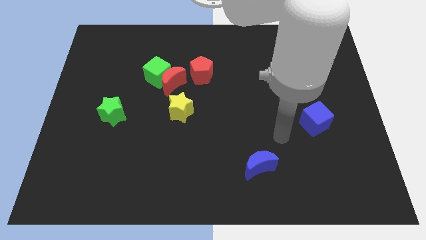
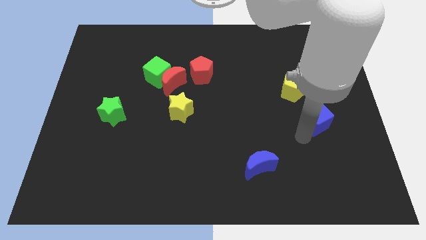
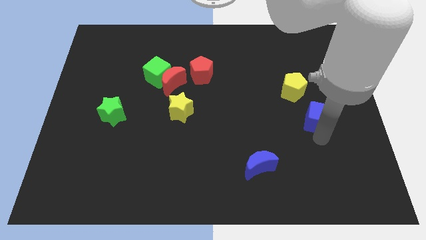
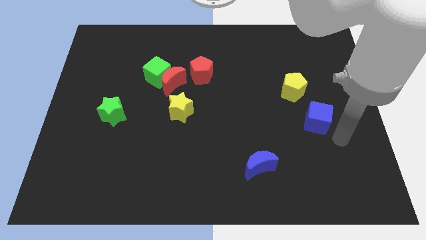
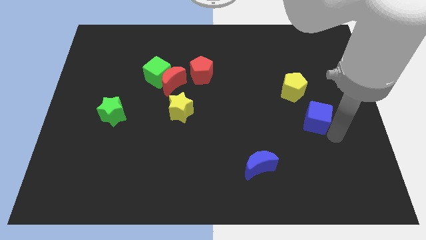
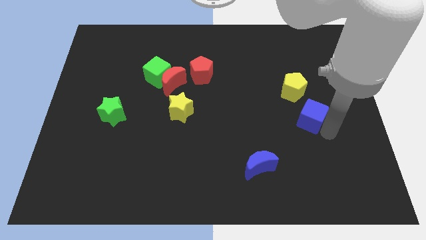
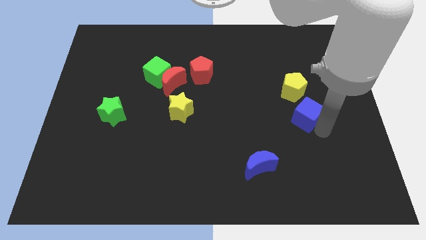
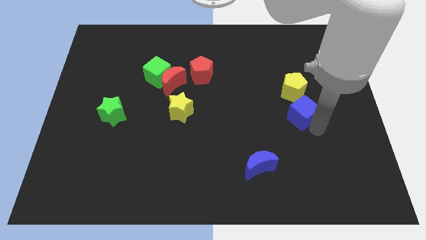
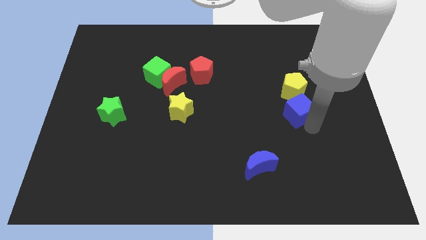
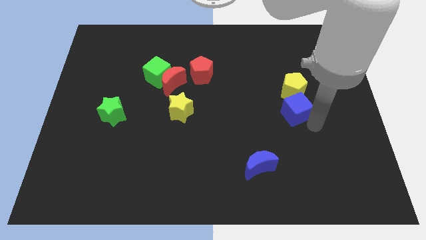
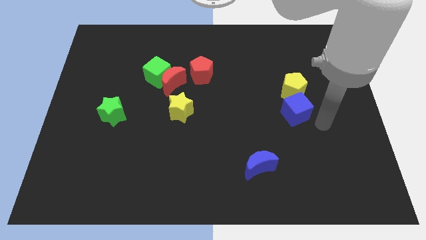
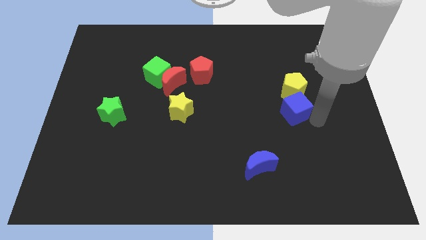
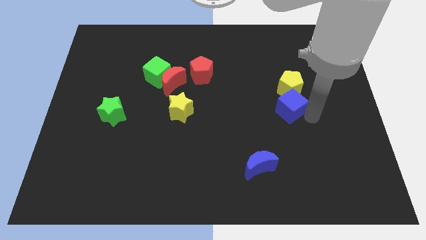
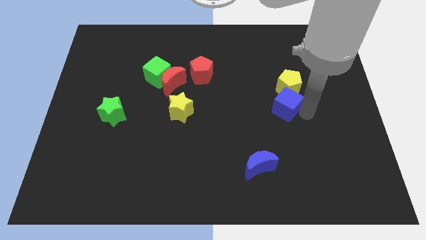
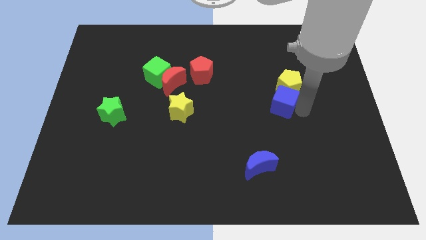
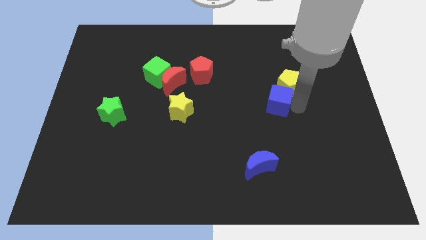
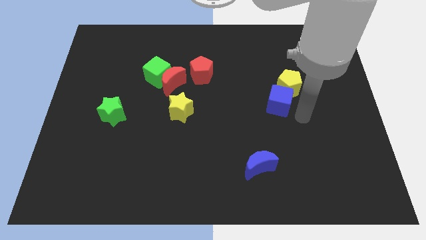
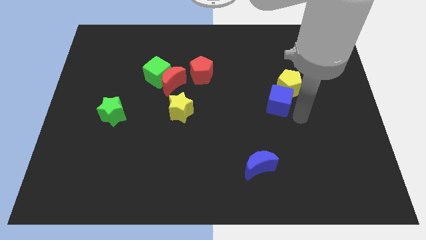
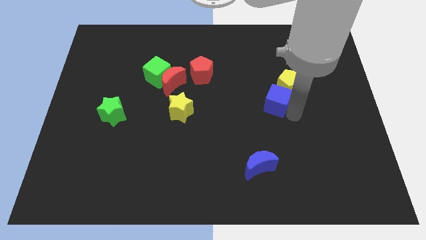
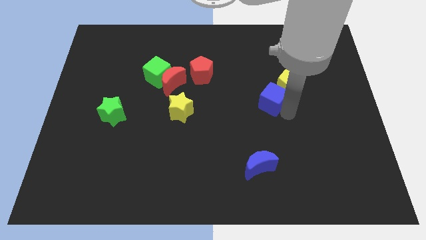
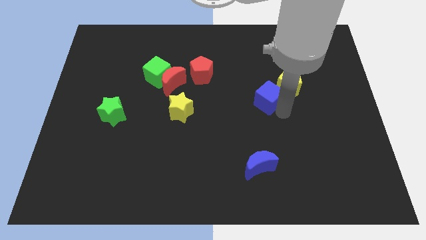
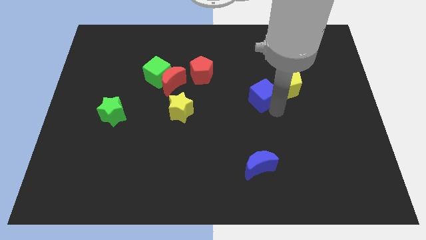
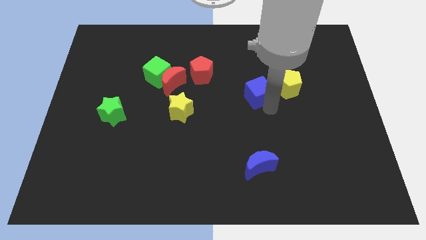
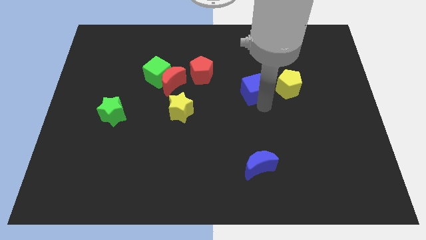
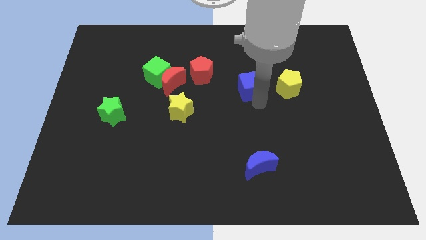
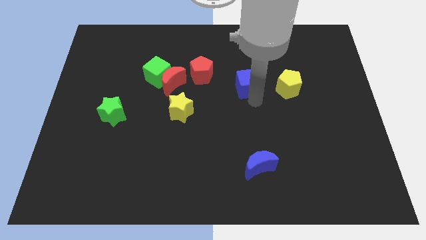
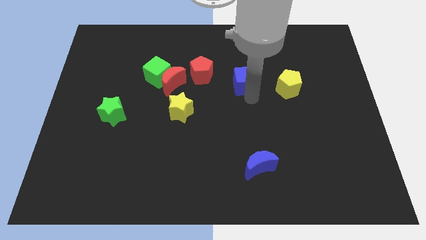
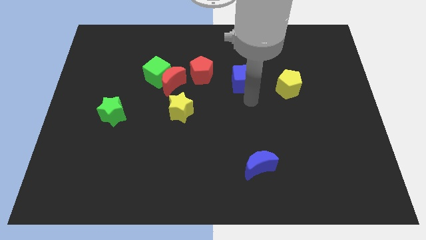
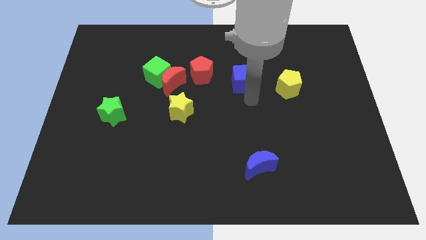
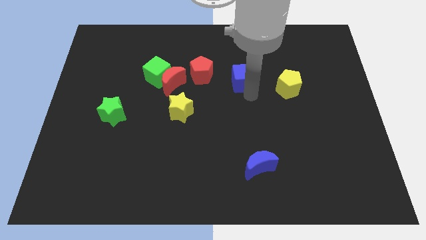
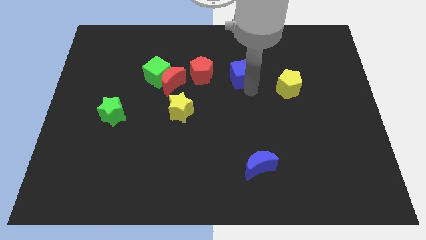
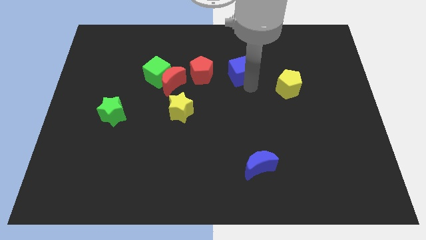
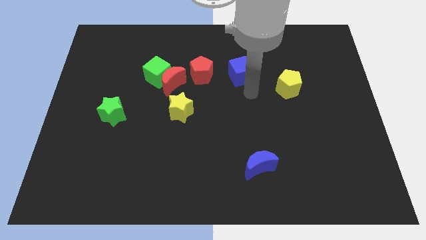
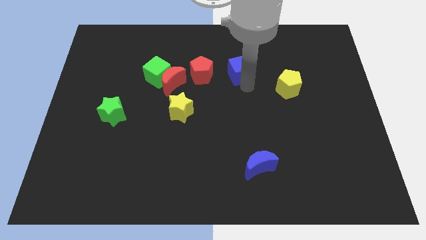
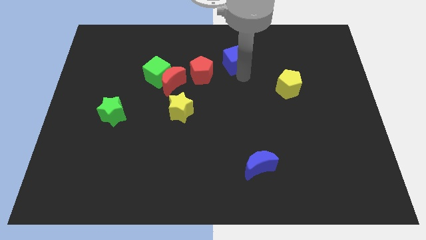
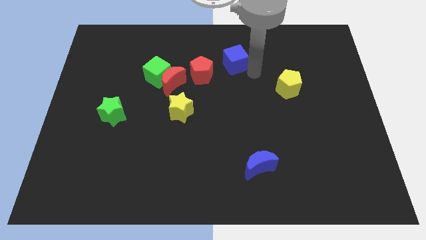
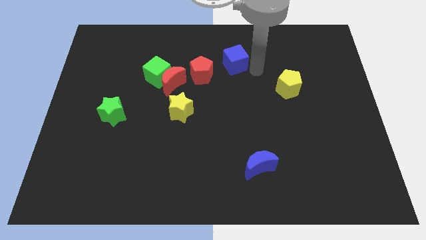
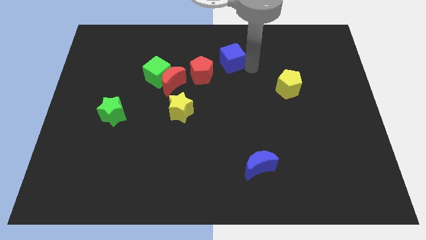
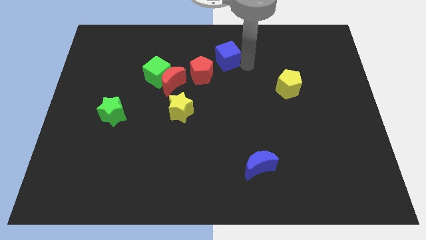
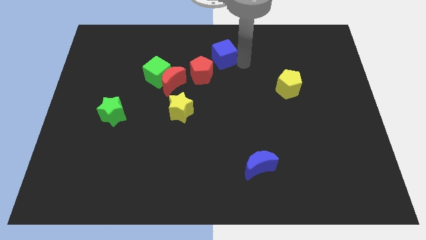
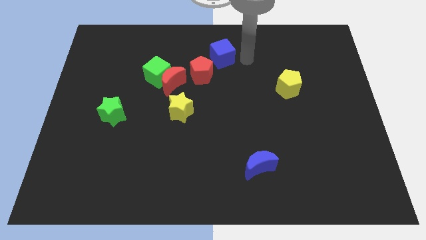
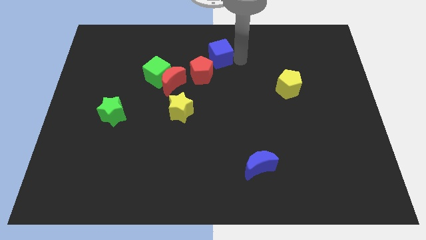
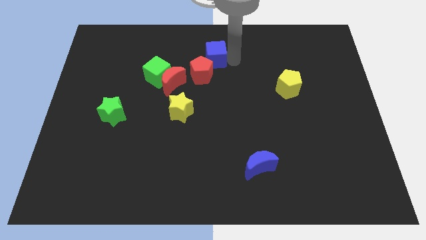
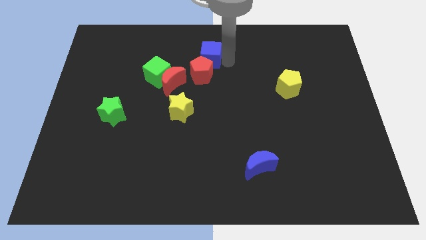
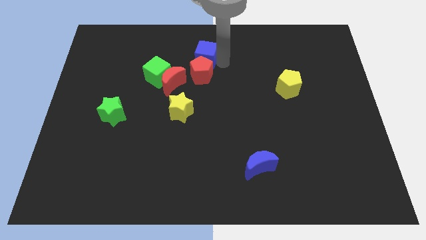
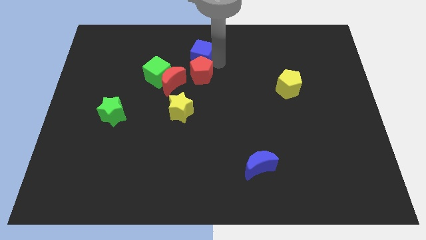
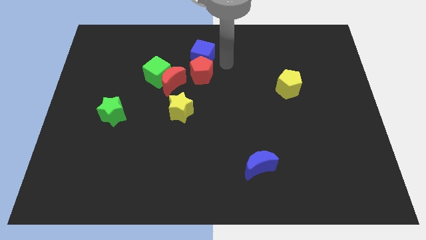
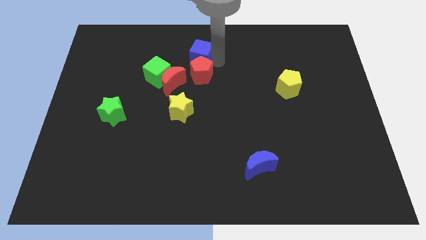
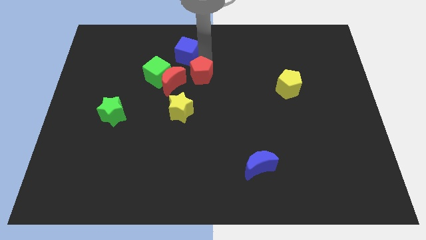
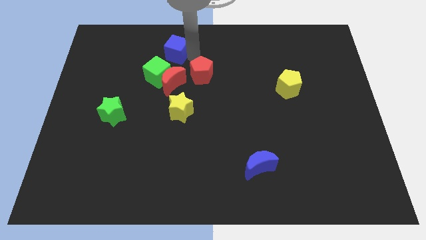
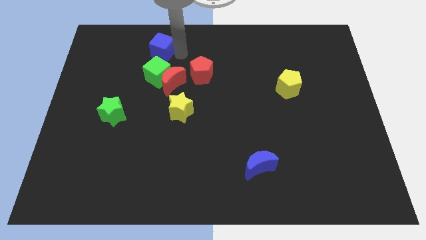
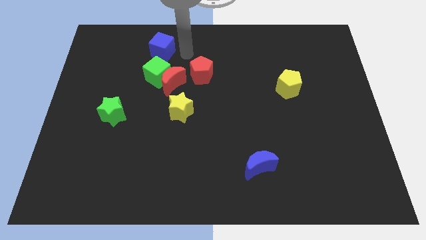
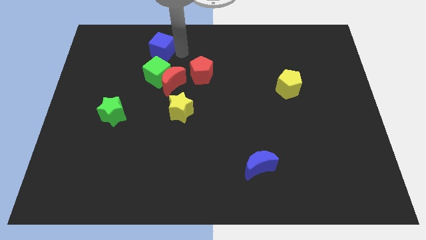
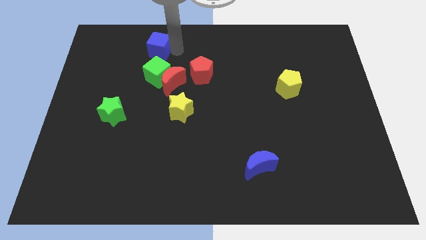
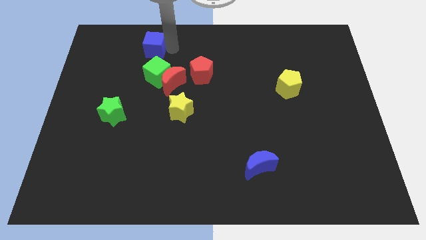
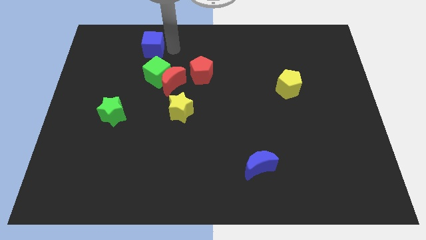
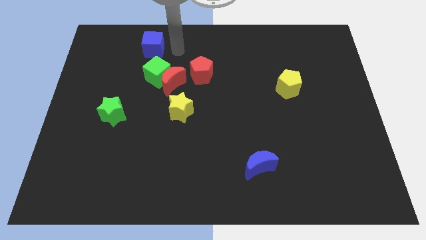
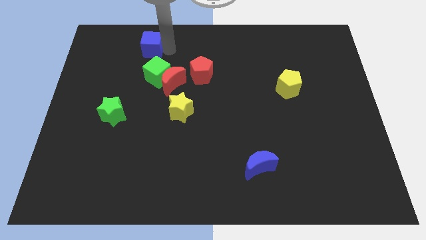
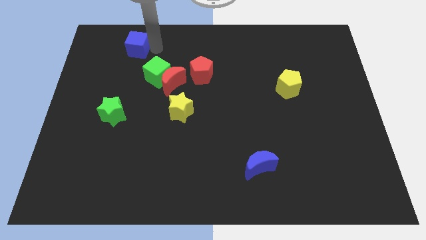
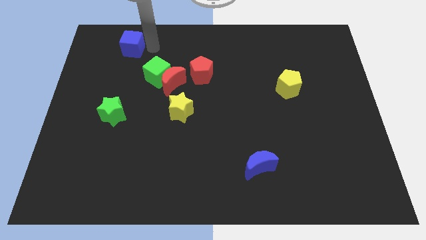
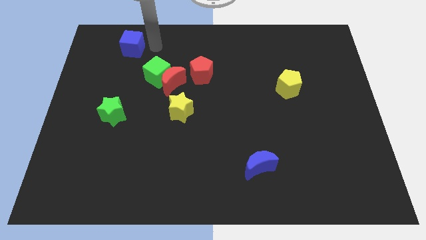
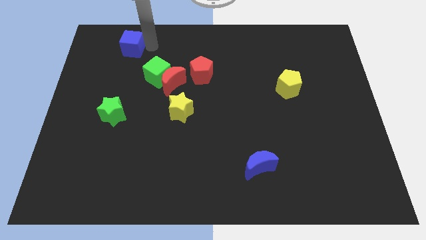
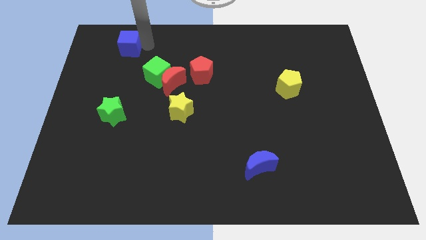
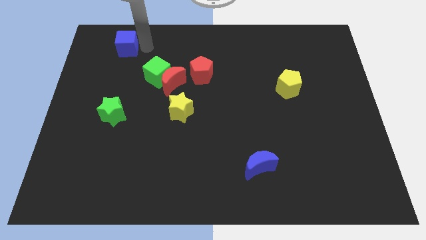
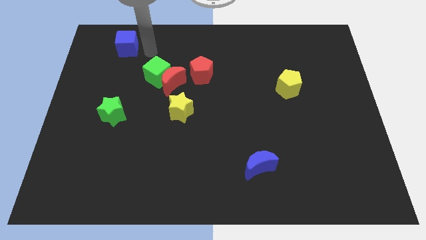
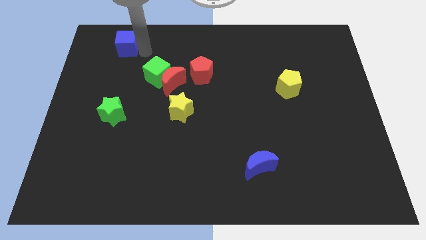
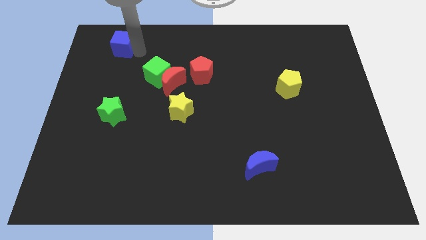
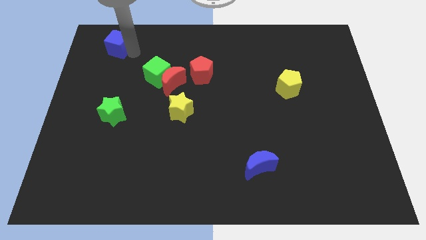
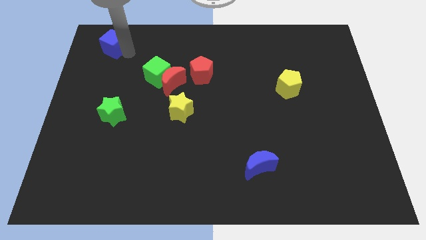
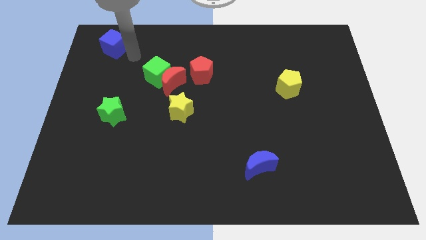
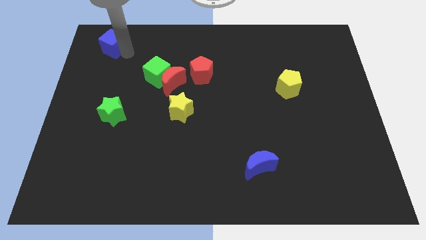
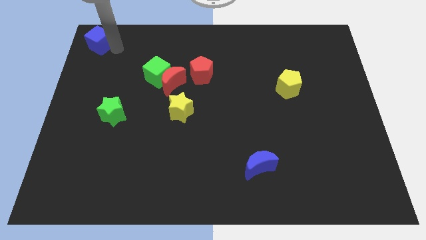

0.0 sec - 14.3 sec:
move the blue cube to the top left

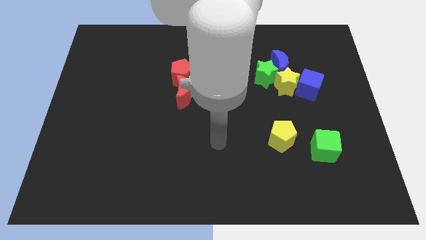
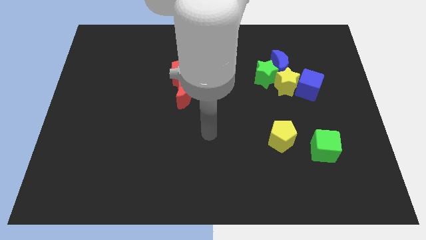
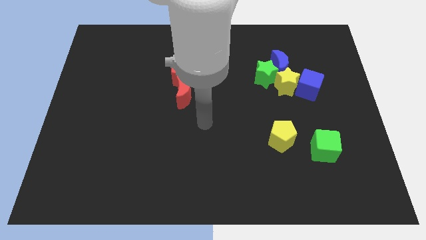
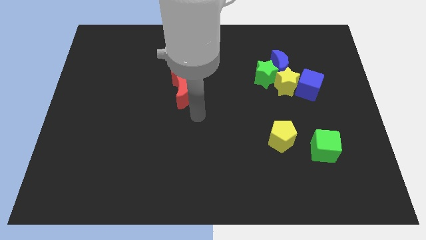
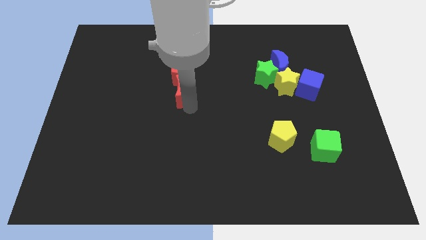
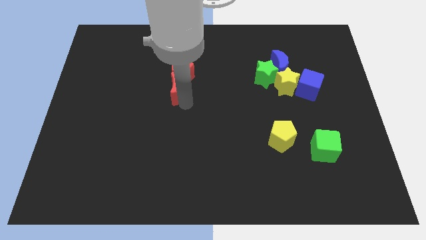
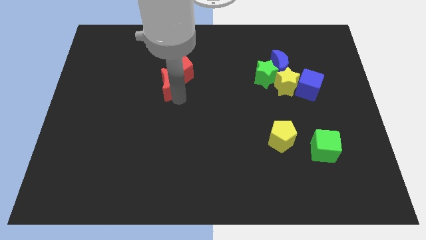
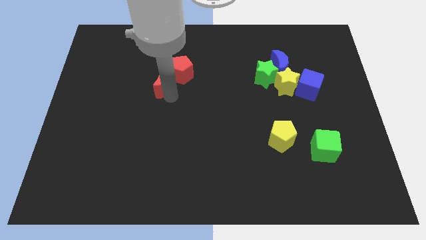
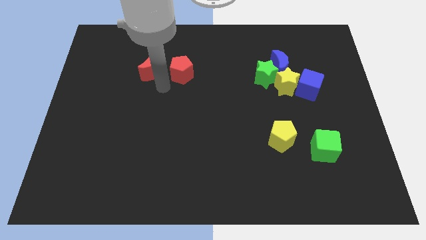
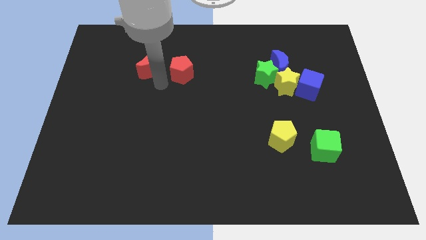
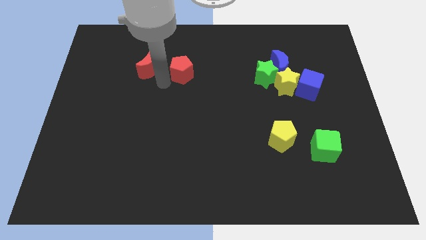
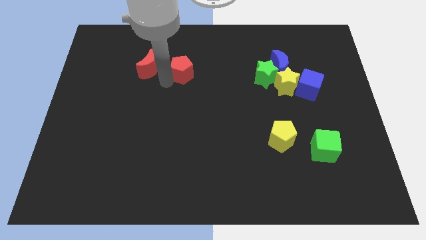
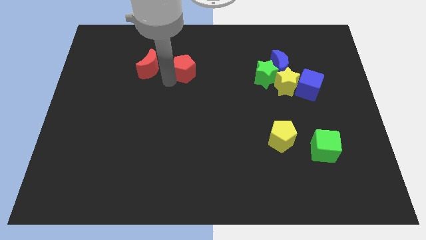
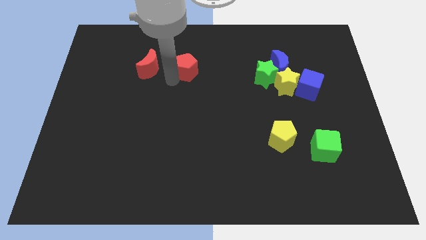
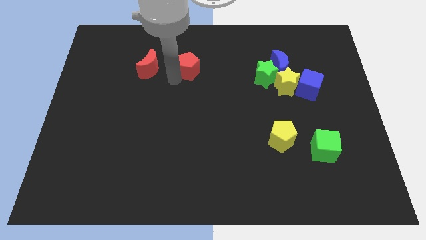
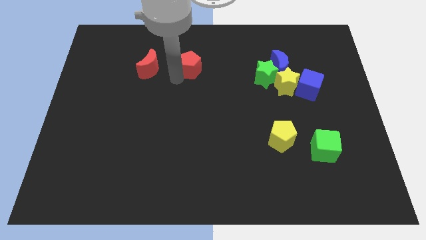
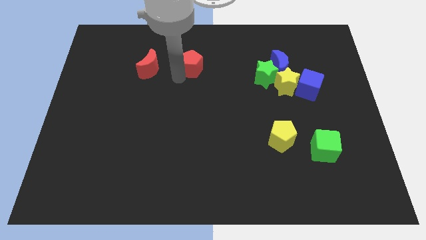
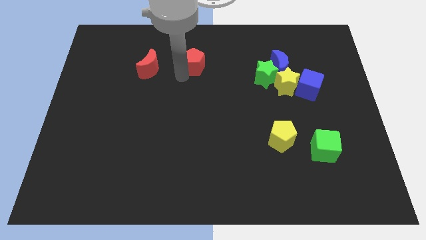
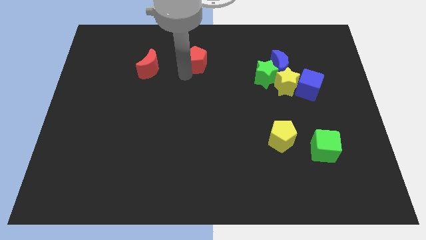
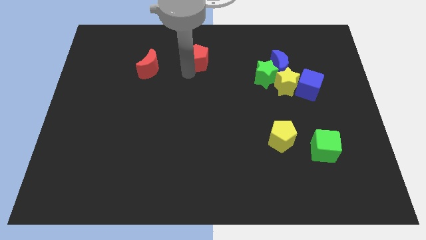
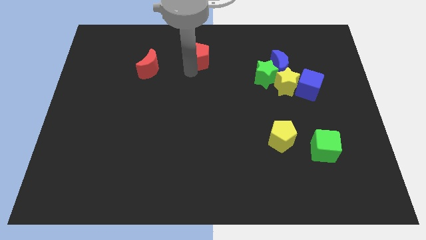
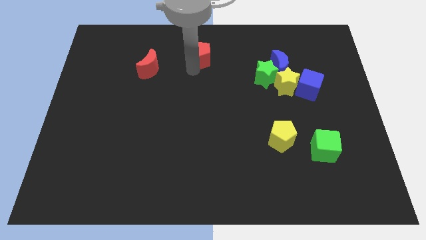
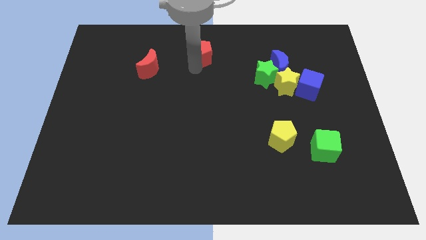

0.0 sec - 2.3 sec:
push the red pentagon to the top side
